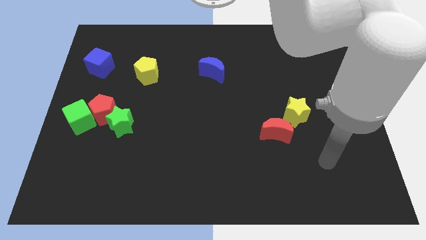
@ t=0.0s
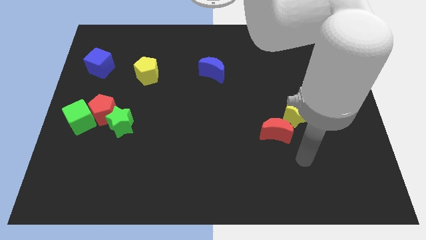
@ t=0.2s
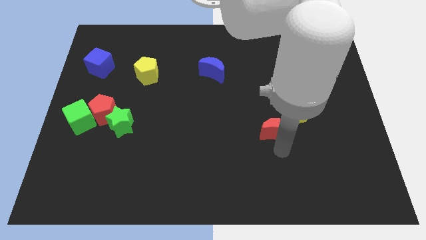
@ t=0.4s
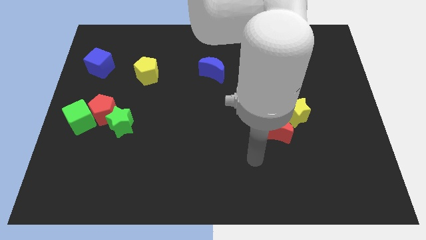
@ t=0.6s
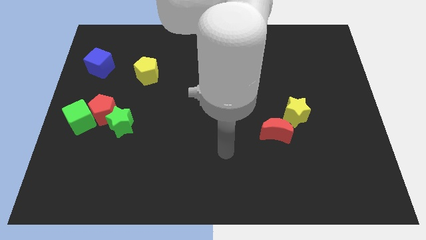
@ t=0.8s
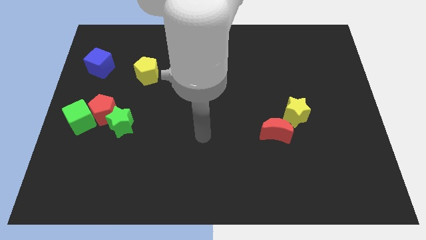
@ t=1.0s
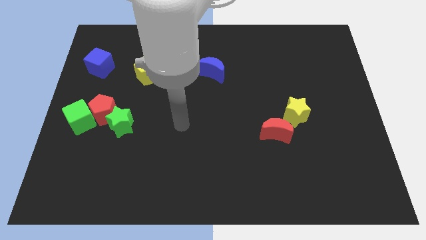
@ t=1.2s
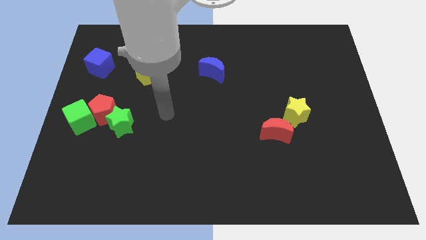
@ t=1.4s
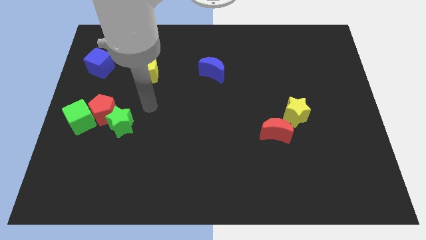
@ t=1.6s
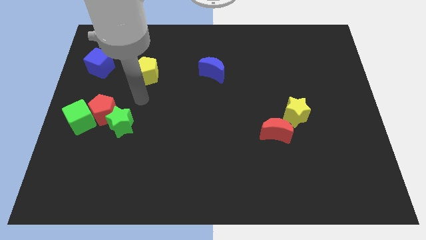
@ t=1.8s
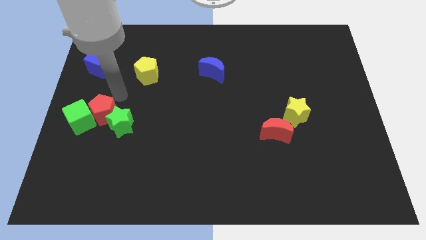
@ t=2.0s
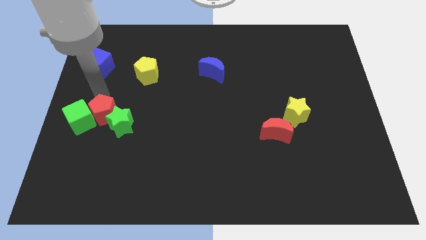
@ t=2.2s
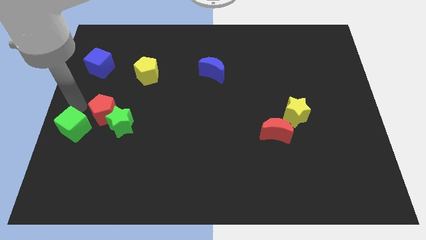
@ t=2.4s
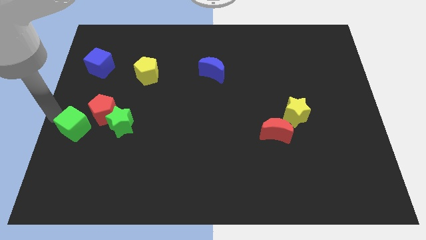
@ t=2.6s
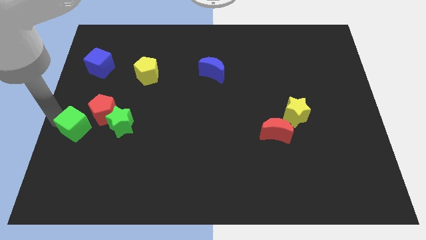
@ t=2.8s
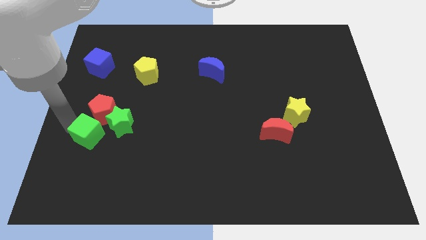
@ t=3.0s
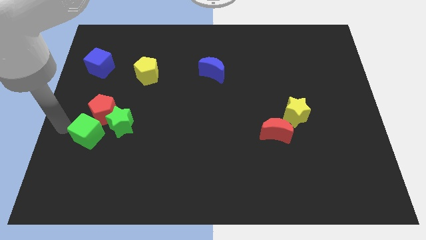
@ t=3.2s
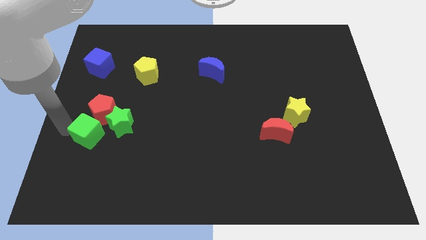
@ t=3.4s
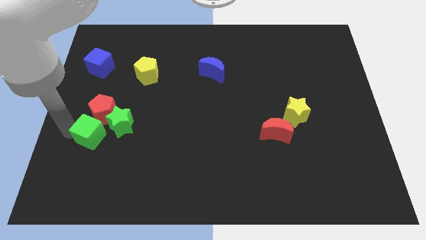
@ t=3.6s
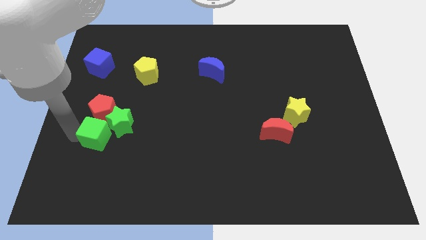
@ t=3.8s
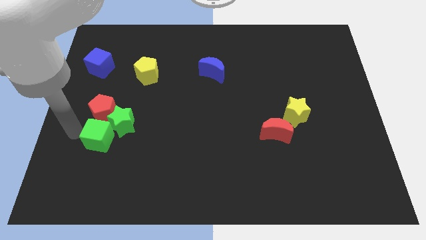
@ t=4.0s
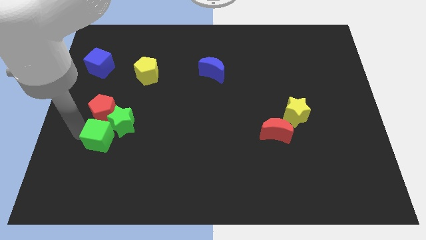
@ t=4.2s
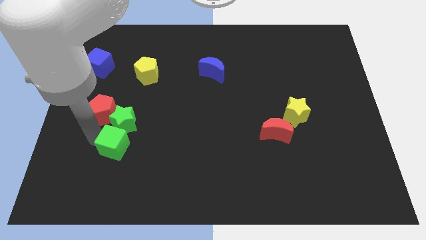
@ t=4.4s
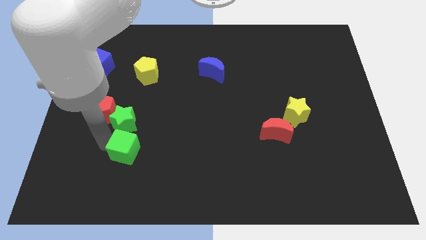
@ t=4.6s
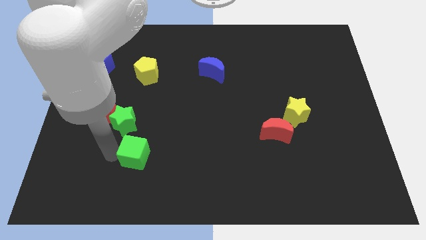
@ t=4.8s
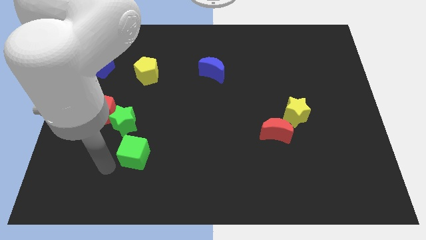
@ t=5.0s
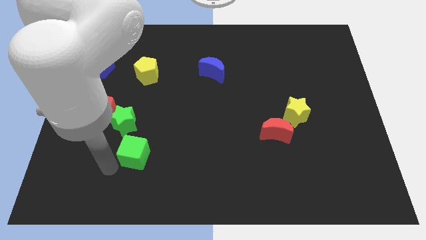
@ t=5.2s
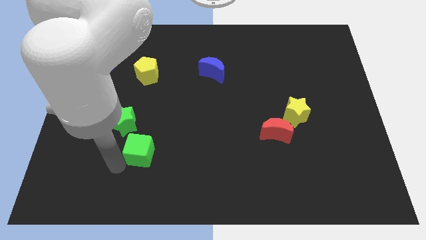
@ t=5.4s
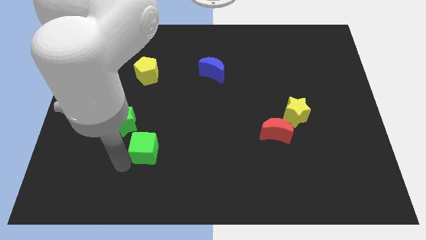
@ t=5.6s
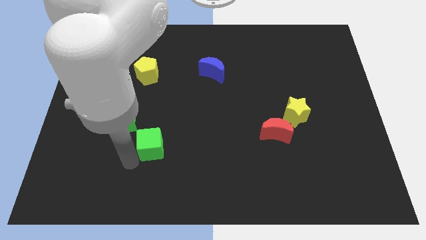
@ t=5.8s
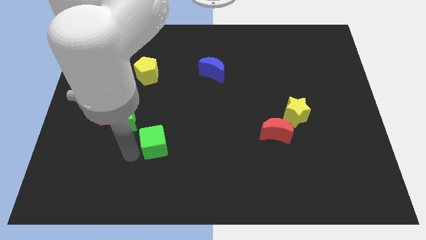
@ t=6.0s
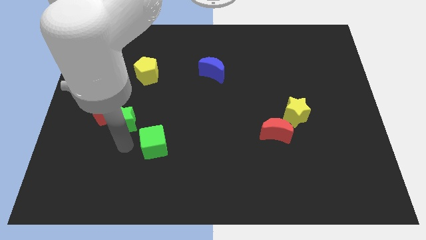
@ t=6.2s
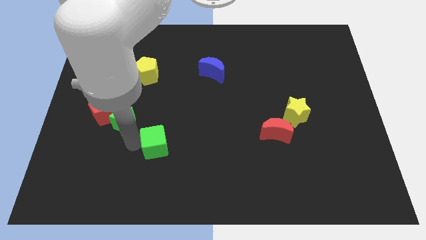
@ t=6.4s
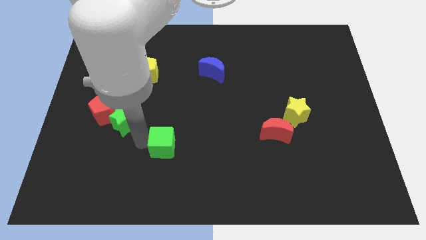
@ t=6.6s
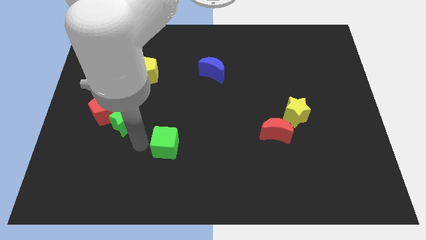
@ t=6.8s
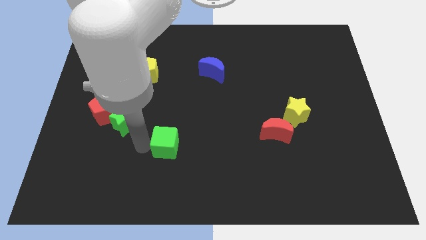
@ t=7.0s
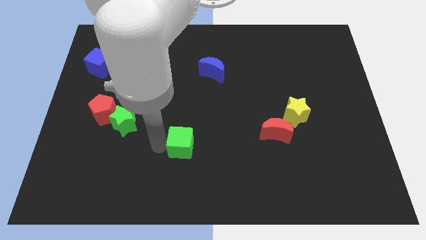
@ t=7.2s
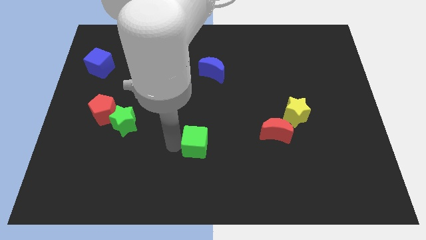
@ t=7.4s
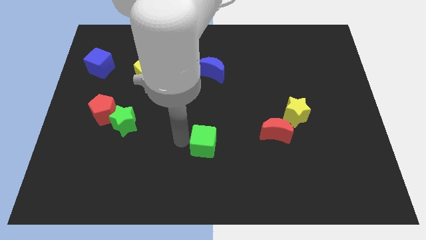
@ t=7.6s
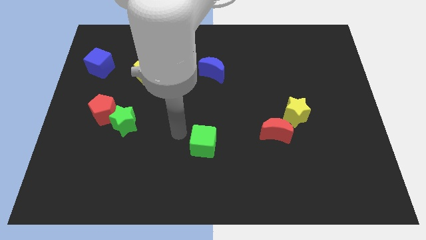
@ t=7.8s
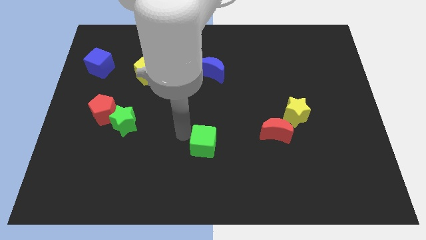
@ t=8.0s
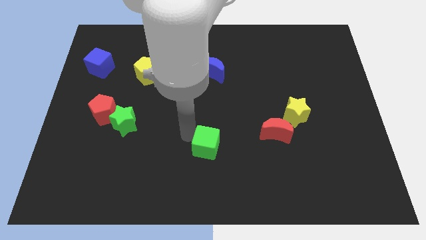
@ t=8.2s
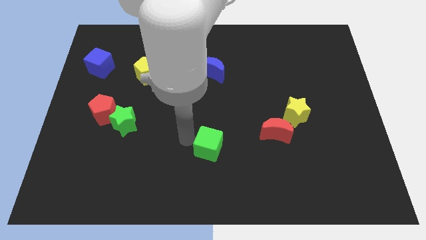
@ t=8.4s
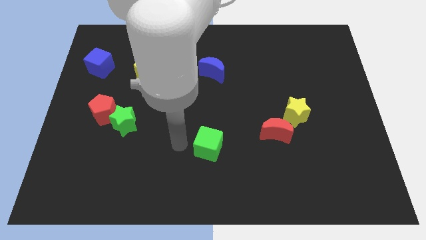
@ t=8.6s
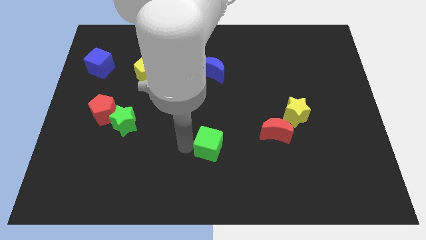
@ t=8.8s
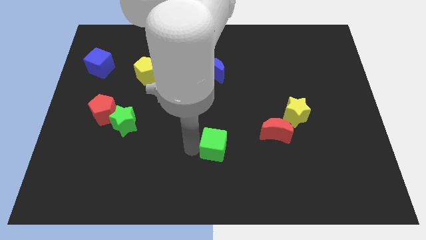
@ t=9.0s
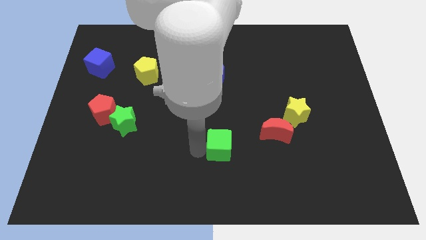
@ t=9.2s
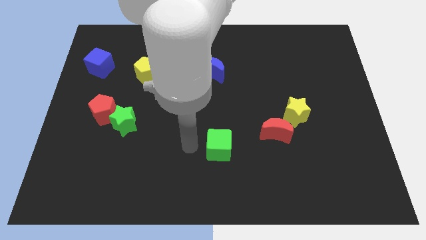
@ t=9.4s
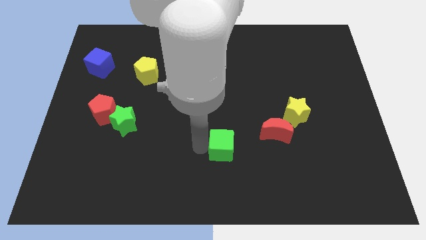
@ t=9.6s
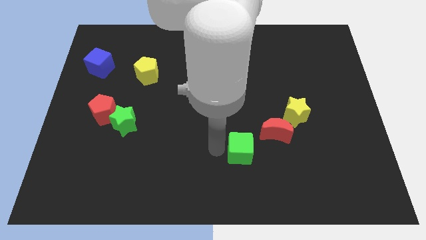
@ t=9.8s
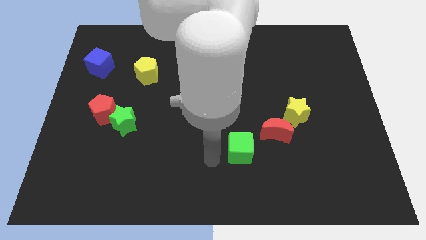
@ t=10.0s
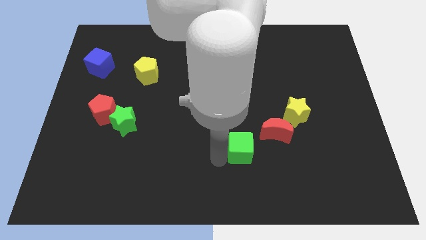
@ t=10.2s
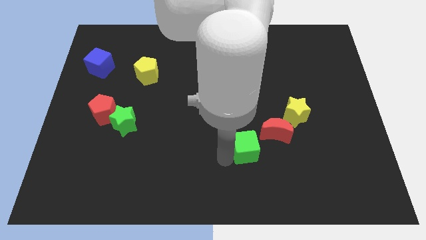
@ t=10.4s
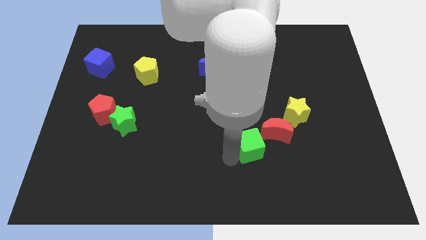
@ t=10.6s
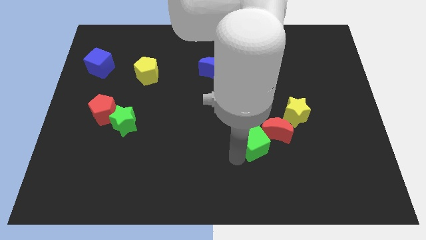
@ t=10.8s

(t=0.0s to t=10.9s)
move the green cube to the bottom left of the yellow star

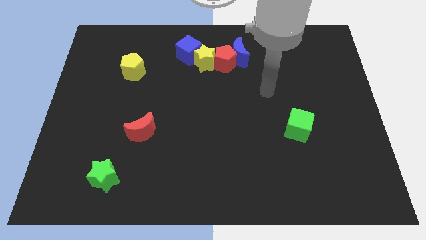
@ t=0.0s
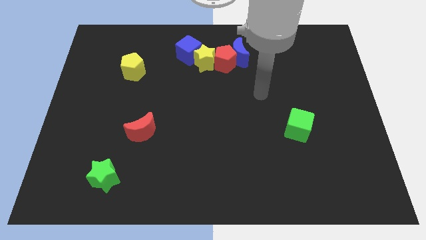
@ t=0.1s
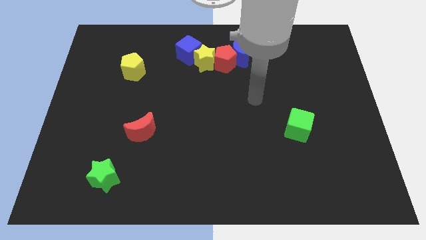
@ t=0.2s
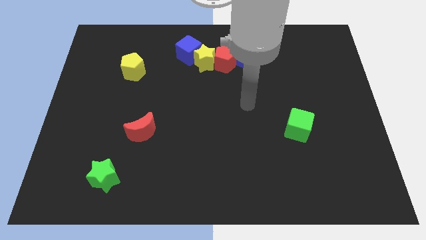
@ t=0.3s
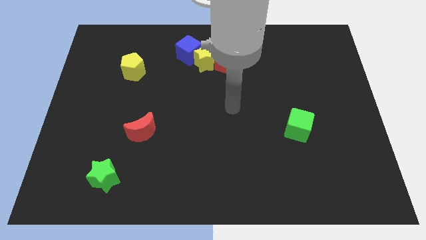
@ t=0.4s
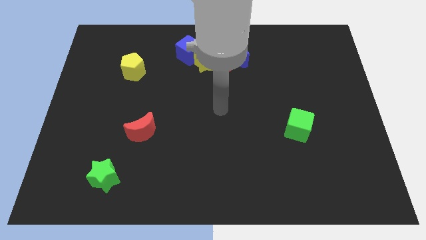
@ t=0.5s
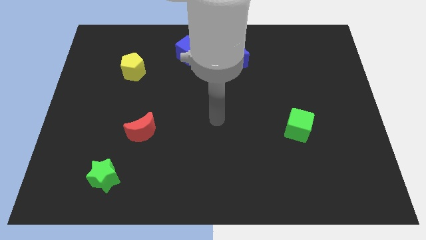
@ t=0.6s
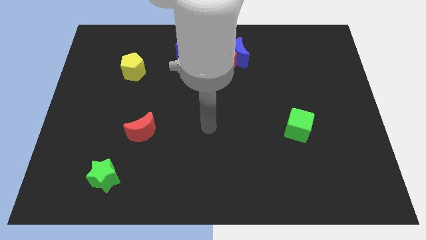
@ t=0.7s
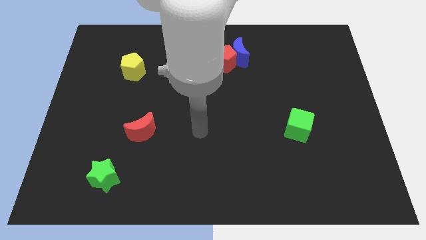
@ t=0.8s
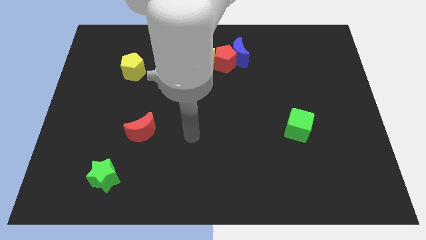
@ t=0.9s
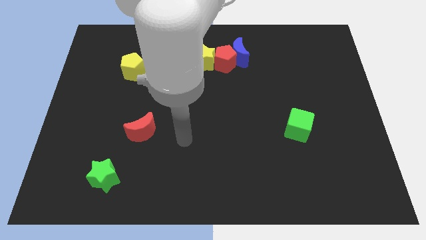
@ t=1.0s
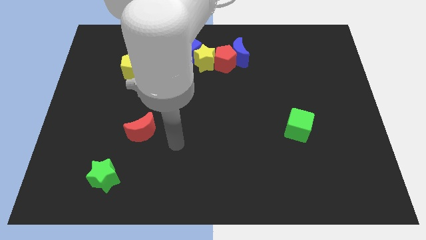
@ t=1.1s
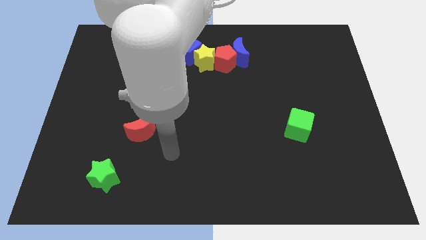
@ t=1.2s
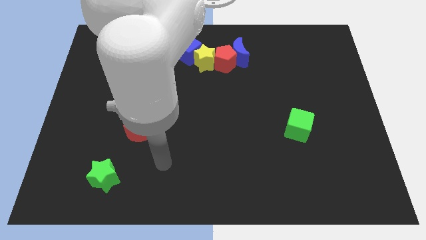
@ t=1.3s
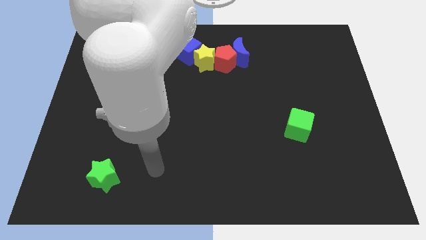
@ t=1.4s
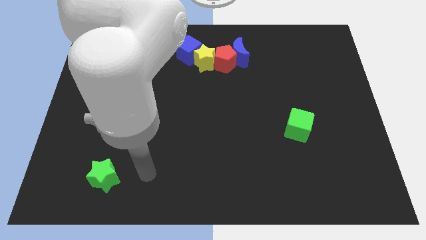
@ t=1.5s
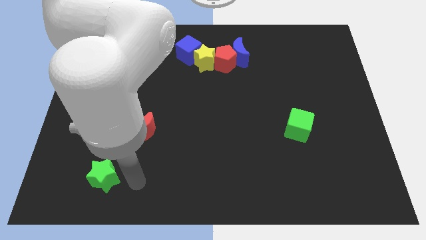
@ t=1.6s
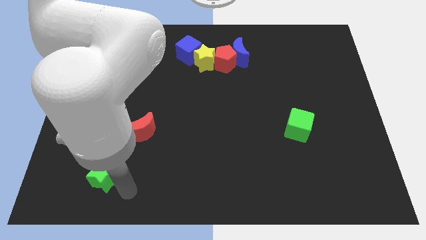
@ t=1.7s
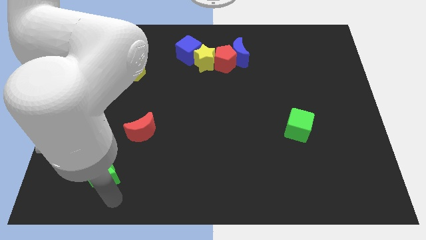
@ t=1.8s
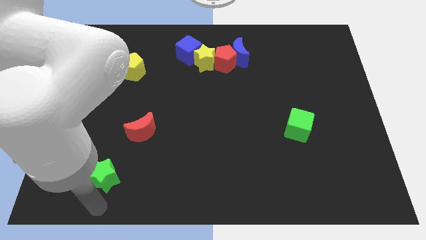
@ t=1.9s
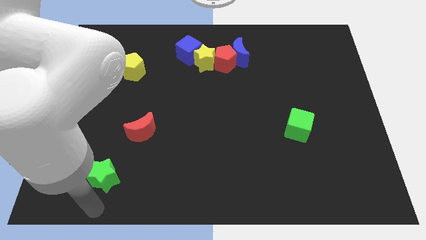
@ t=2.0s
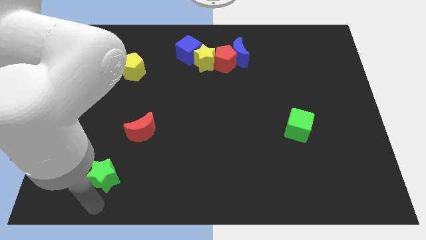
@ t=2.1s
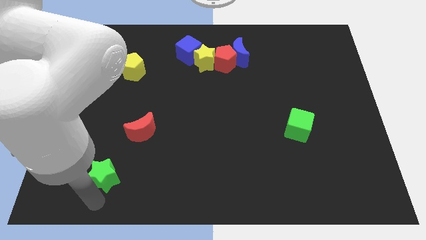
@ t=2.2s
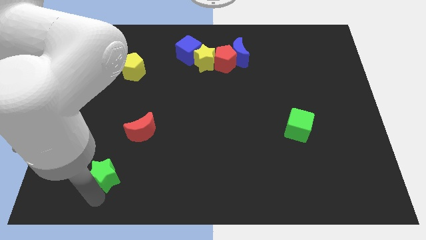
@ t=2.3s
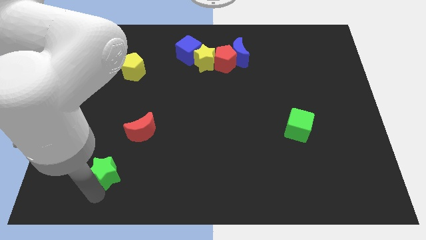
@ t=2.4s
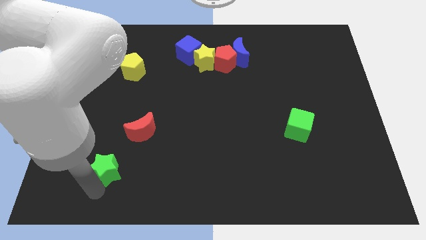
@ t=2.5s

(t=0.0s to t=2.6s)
move the green star to the bottom left of the red moon
